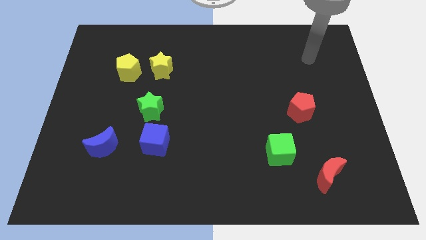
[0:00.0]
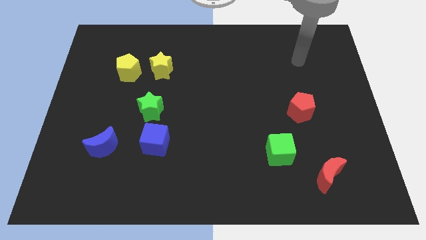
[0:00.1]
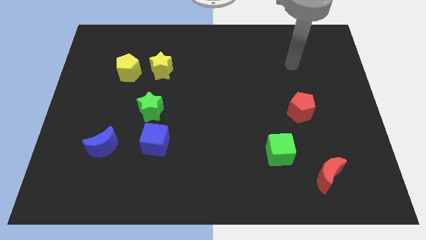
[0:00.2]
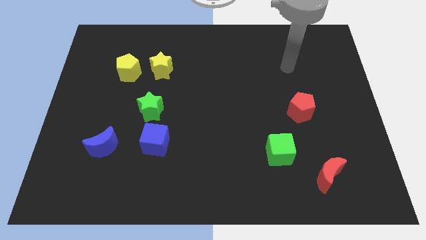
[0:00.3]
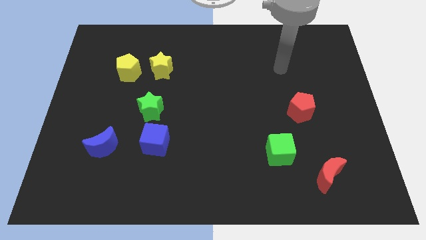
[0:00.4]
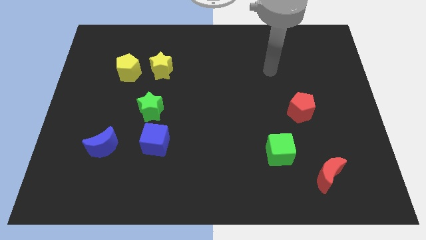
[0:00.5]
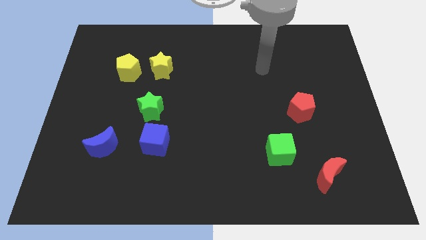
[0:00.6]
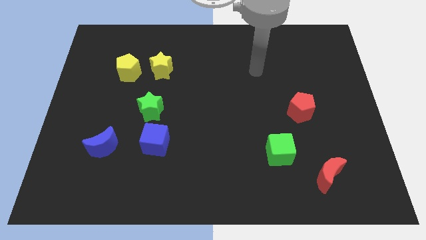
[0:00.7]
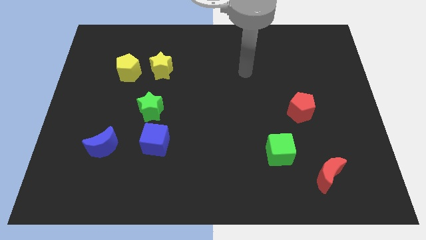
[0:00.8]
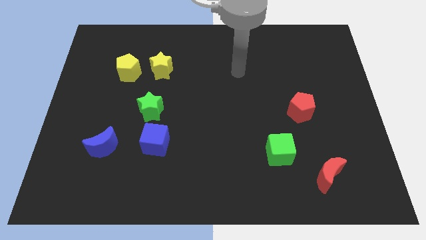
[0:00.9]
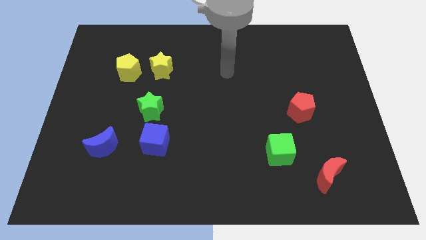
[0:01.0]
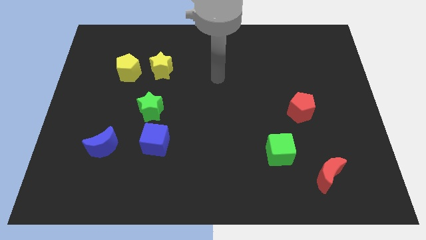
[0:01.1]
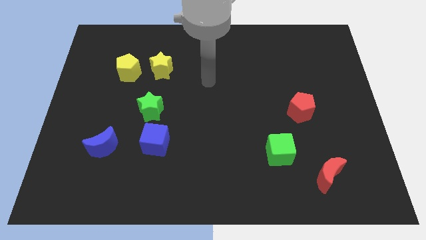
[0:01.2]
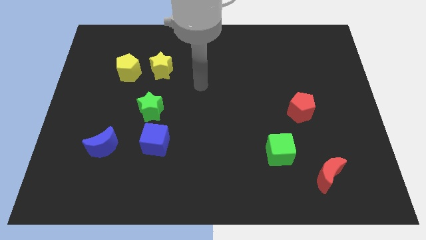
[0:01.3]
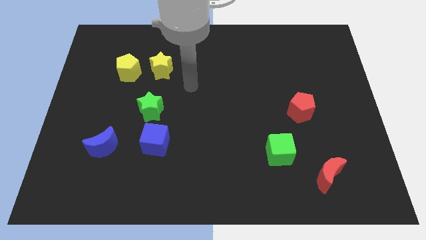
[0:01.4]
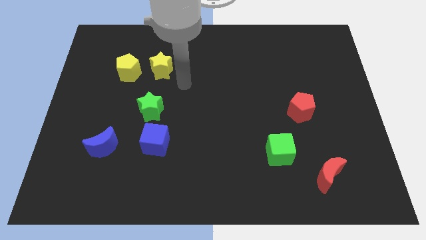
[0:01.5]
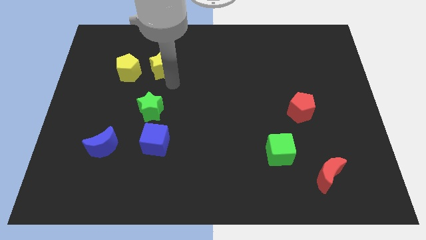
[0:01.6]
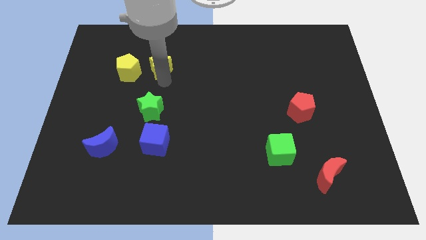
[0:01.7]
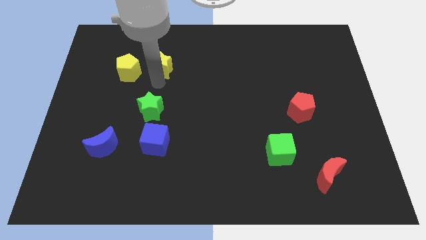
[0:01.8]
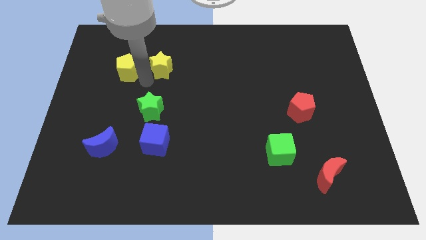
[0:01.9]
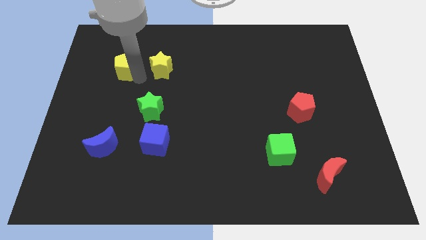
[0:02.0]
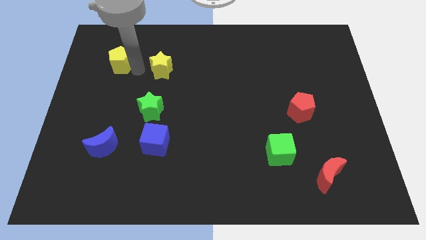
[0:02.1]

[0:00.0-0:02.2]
separate the yellow star from the yellow pentagon

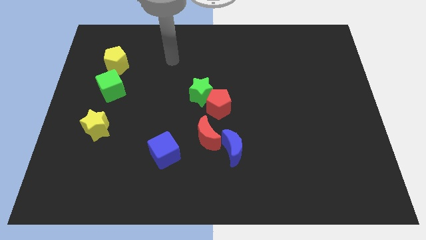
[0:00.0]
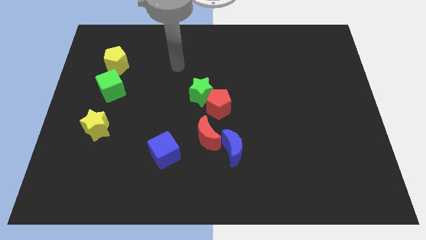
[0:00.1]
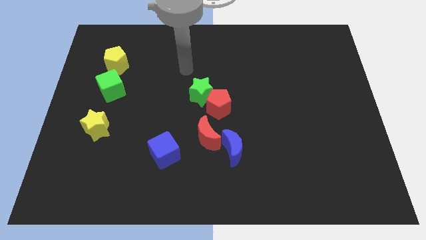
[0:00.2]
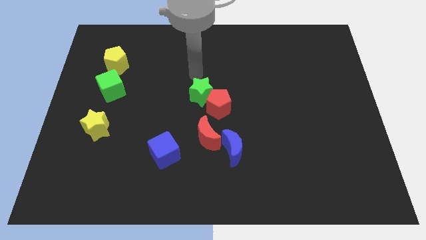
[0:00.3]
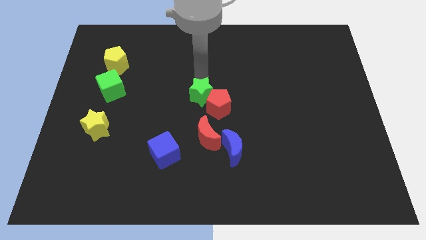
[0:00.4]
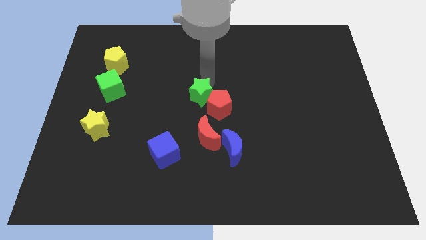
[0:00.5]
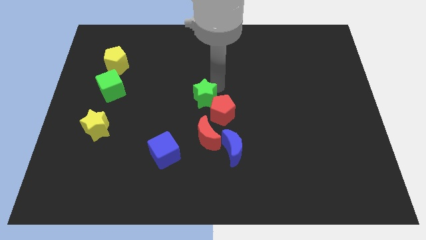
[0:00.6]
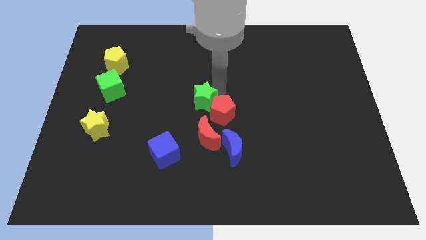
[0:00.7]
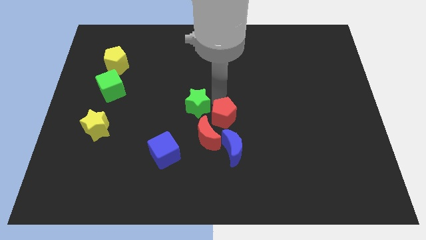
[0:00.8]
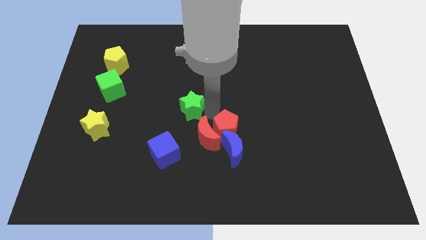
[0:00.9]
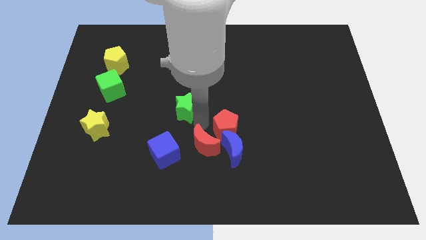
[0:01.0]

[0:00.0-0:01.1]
move the green star away from the red pentagon

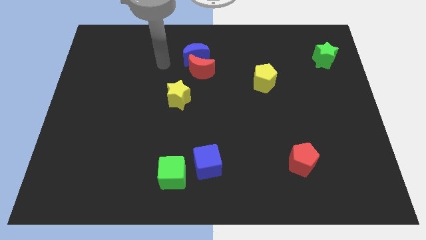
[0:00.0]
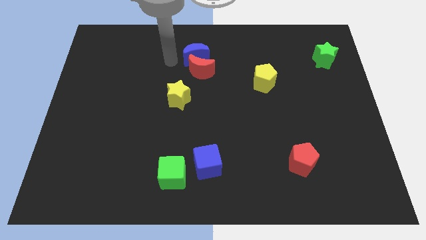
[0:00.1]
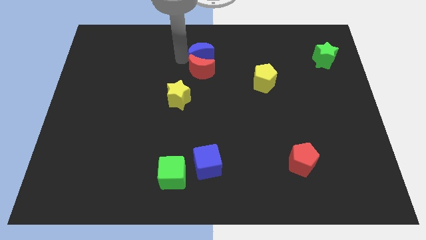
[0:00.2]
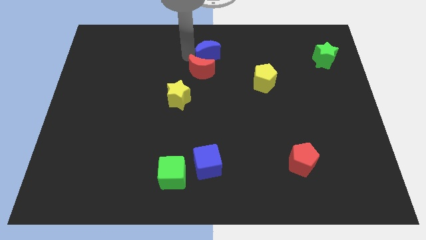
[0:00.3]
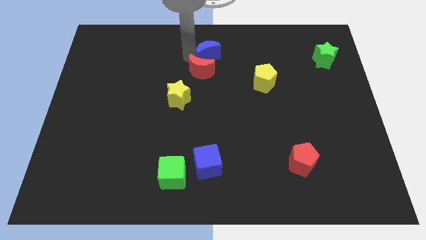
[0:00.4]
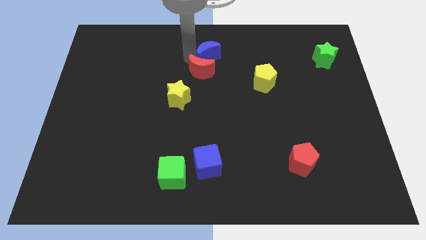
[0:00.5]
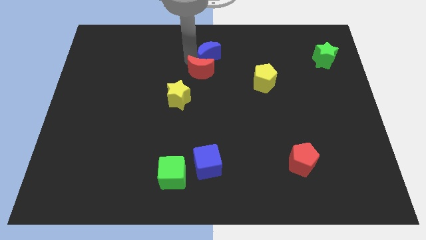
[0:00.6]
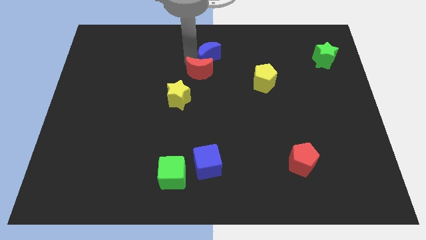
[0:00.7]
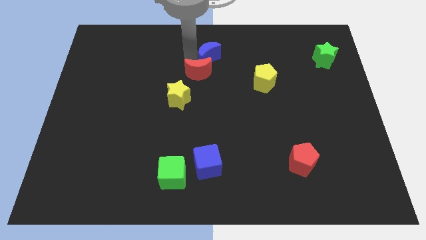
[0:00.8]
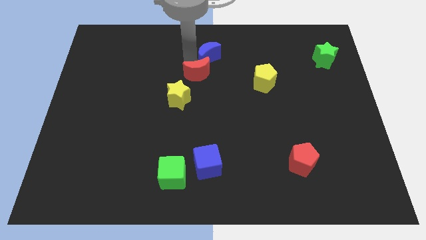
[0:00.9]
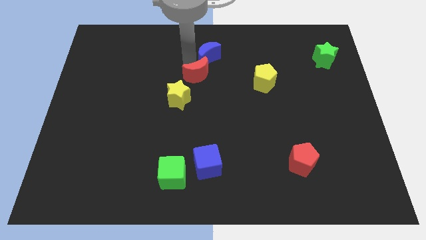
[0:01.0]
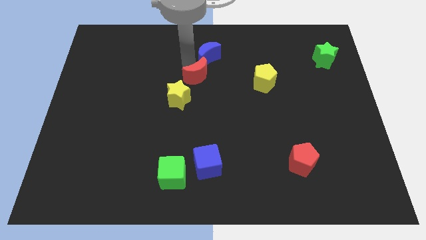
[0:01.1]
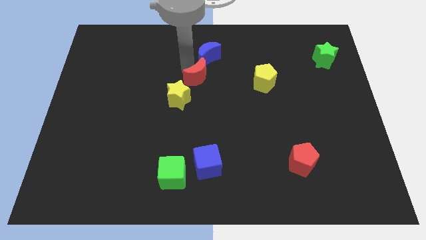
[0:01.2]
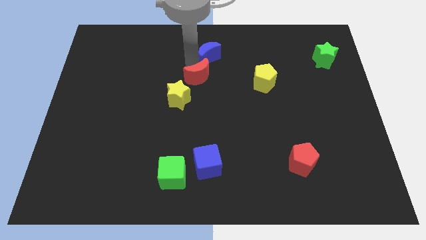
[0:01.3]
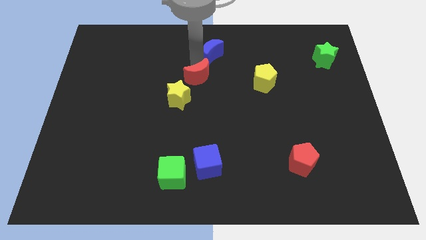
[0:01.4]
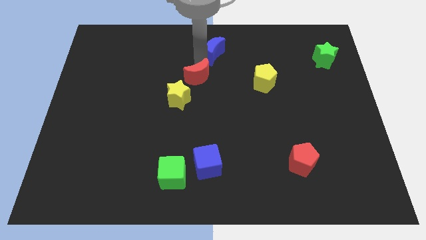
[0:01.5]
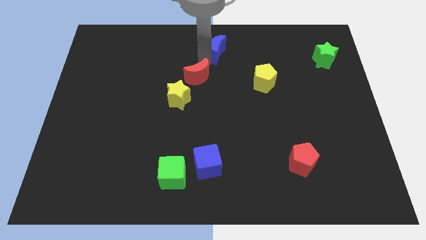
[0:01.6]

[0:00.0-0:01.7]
separate the red moon from the blue moon

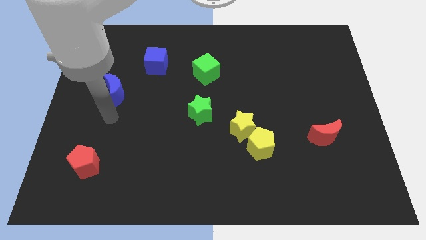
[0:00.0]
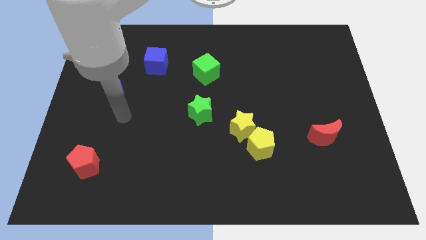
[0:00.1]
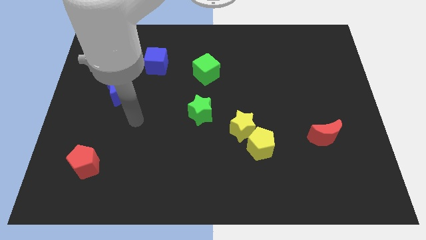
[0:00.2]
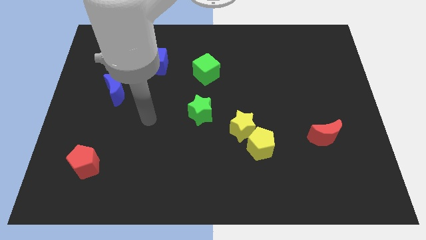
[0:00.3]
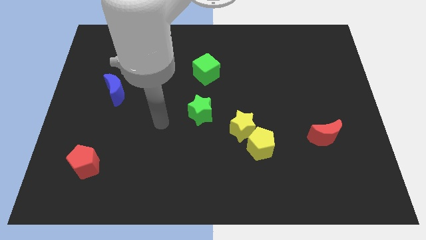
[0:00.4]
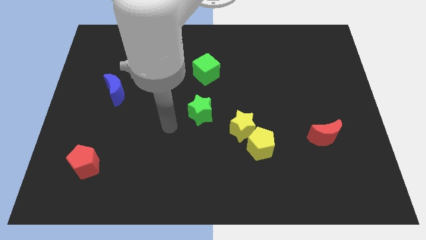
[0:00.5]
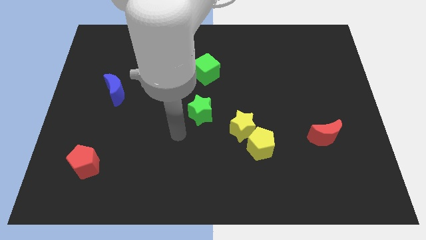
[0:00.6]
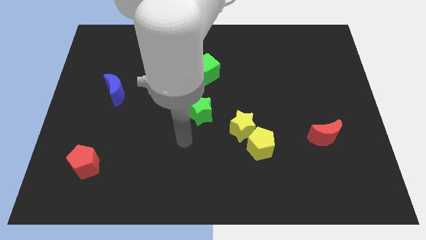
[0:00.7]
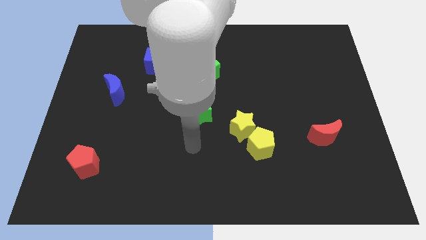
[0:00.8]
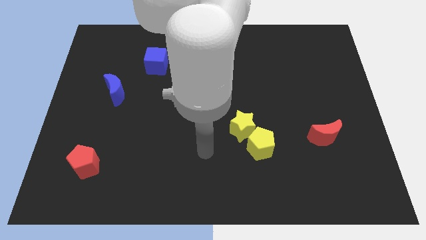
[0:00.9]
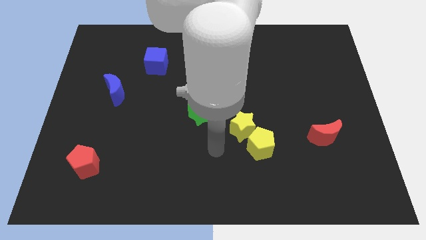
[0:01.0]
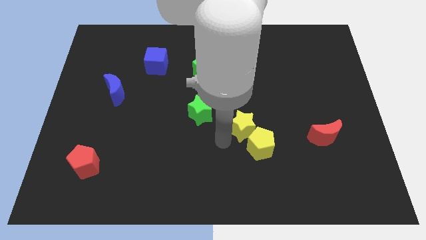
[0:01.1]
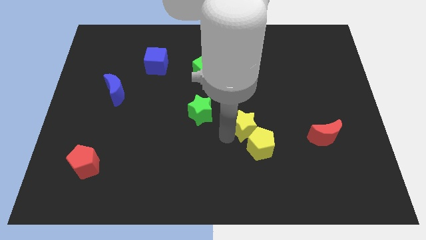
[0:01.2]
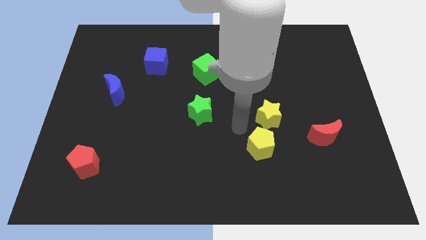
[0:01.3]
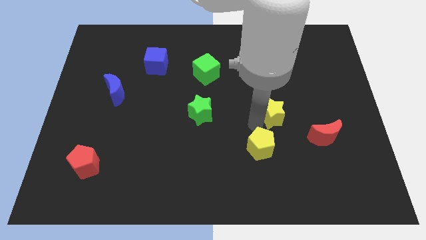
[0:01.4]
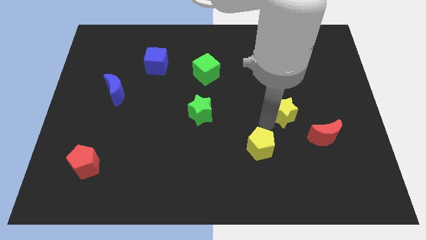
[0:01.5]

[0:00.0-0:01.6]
pull the yellow pentagon apart from the yellow star

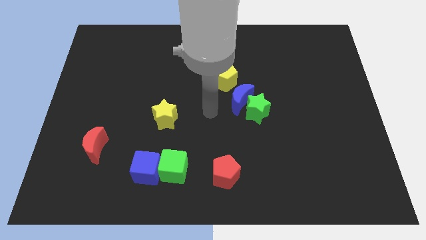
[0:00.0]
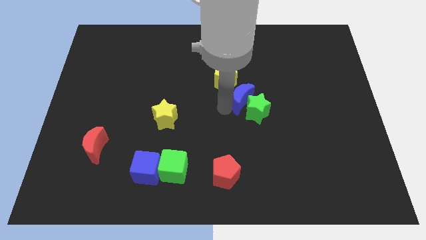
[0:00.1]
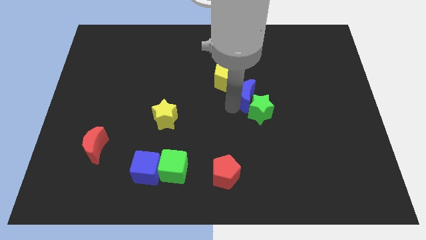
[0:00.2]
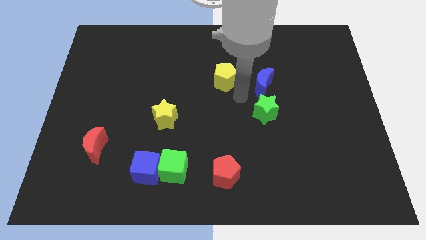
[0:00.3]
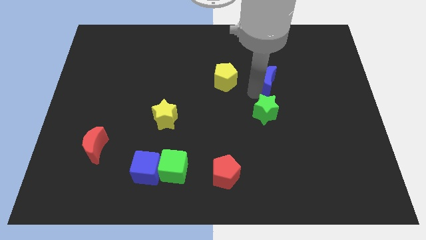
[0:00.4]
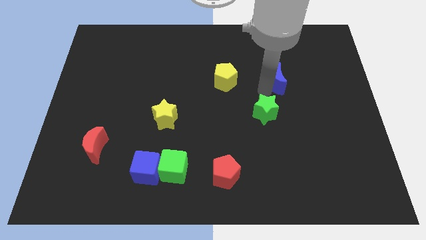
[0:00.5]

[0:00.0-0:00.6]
separate the green star from the blue moon

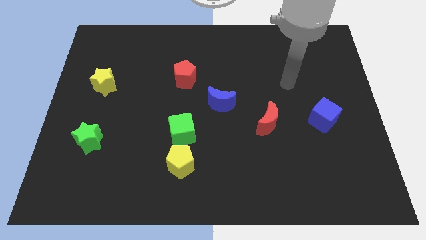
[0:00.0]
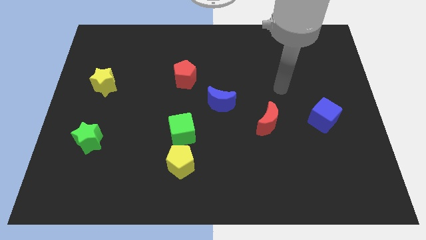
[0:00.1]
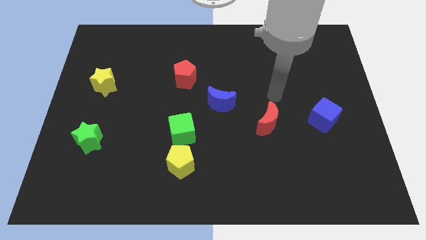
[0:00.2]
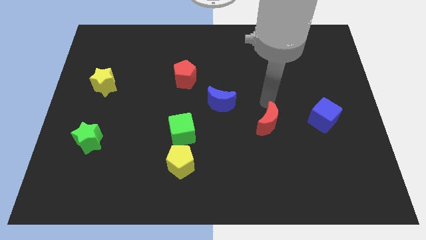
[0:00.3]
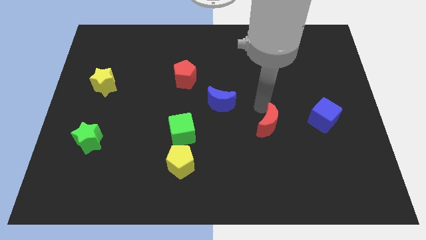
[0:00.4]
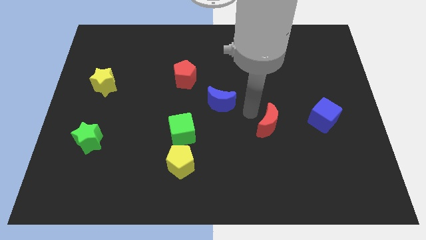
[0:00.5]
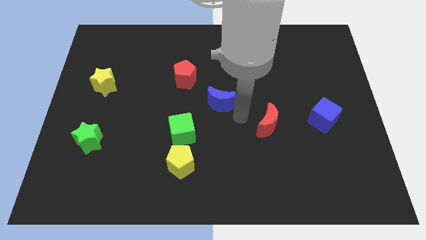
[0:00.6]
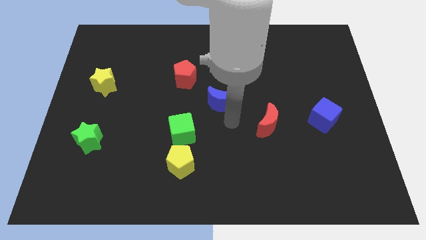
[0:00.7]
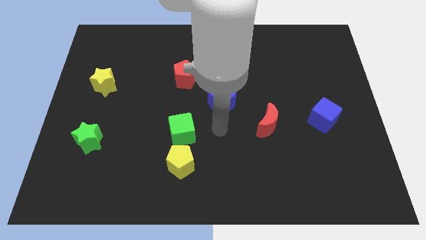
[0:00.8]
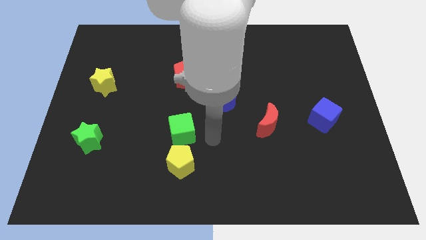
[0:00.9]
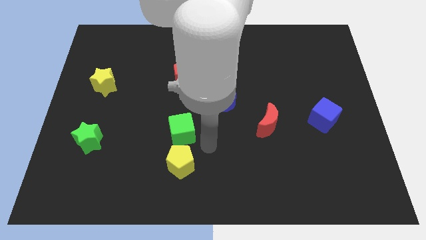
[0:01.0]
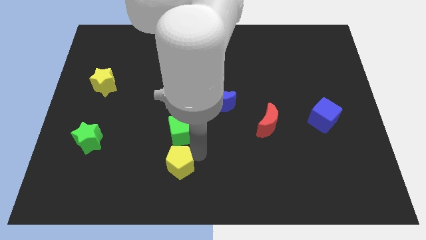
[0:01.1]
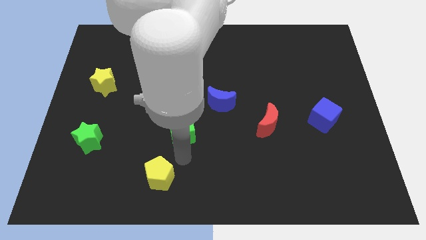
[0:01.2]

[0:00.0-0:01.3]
separate the green cube from the yellow pentagon

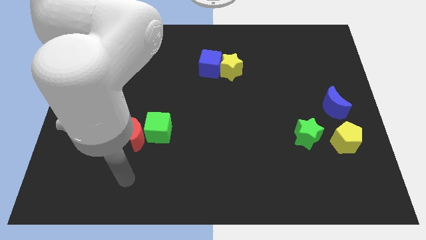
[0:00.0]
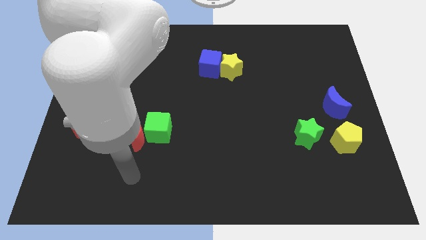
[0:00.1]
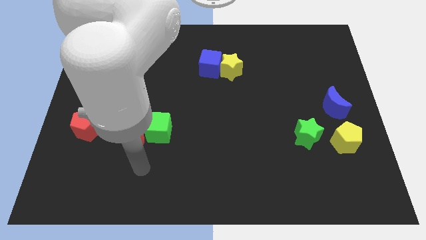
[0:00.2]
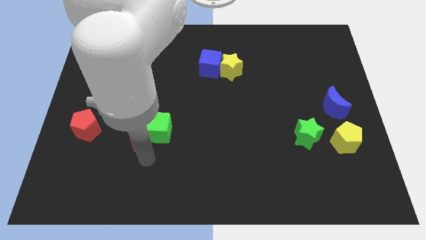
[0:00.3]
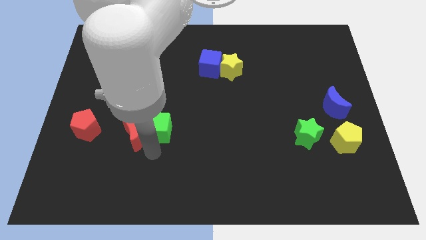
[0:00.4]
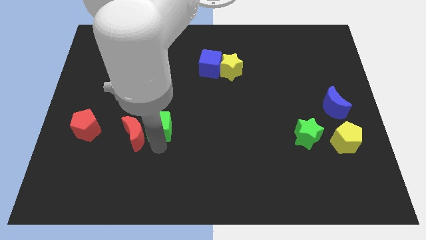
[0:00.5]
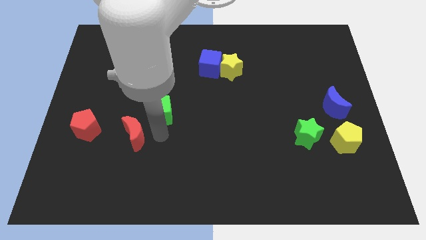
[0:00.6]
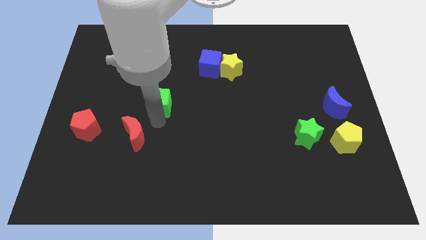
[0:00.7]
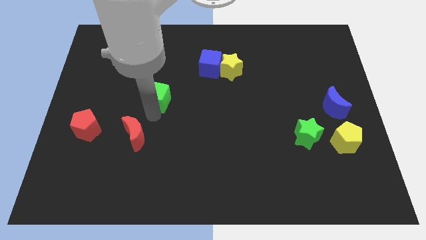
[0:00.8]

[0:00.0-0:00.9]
separate the red moon from the green cube

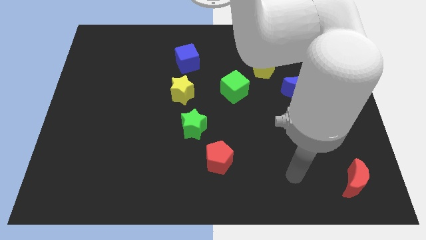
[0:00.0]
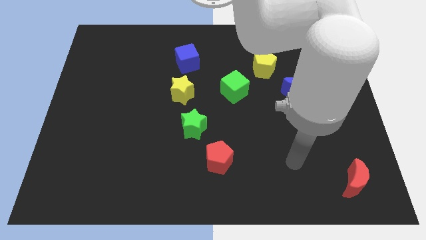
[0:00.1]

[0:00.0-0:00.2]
pull the blue moon apart from the yellow pentagon
